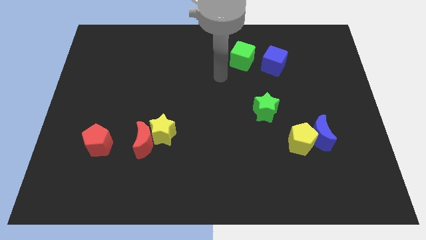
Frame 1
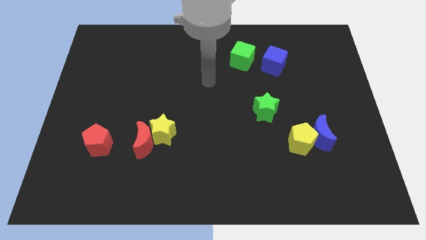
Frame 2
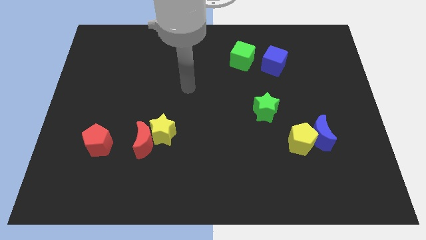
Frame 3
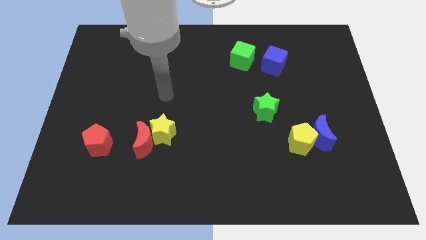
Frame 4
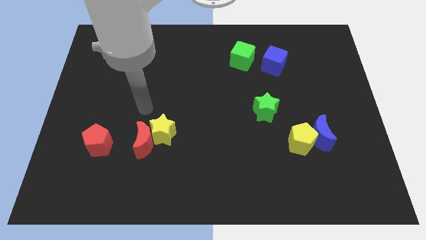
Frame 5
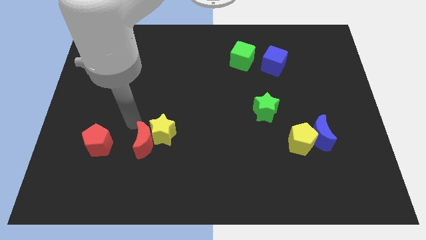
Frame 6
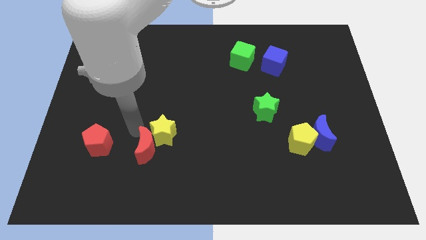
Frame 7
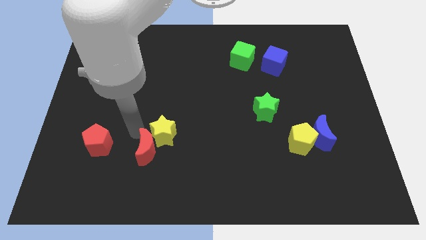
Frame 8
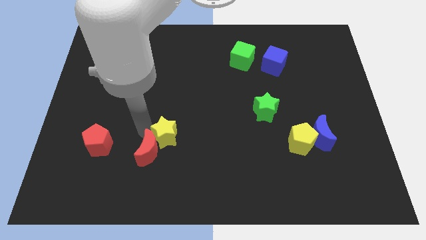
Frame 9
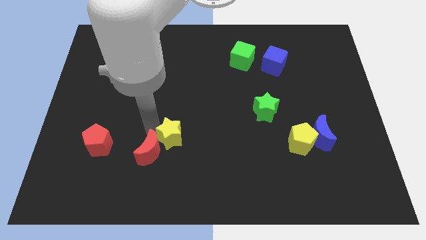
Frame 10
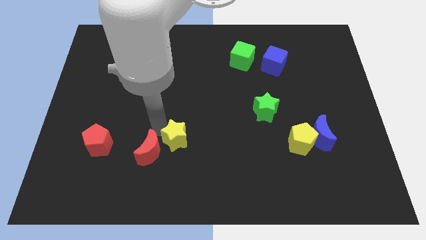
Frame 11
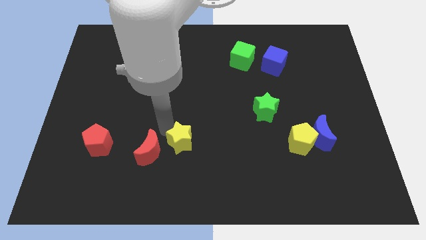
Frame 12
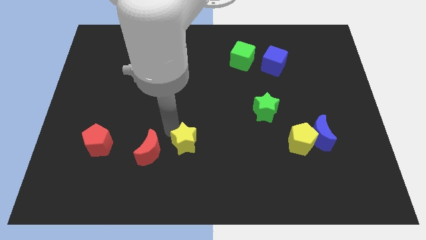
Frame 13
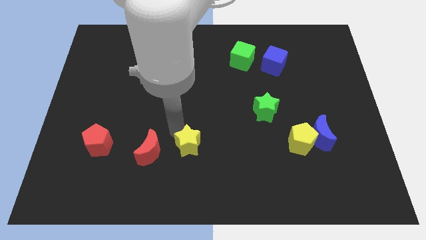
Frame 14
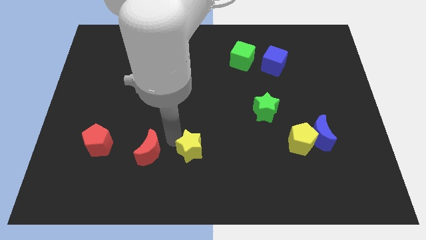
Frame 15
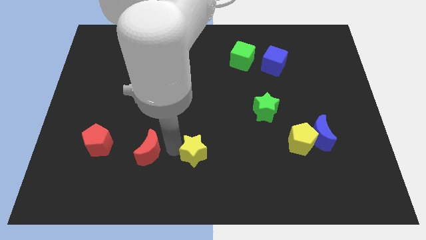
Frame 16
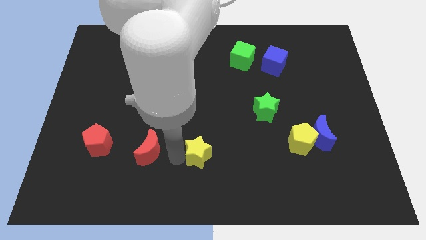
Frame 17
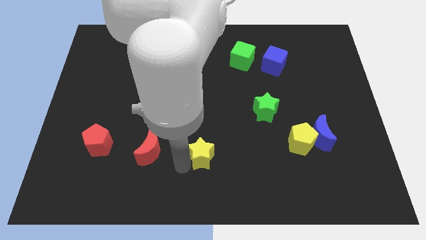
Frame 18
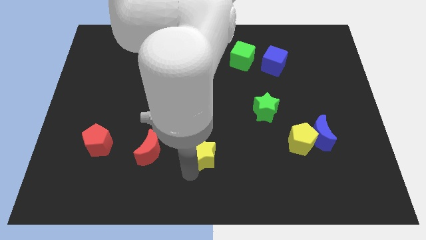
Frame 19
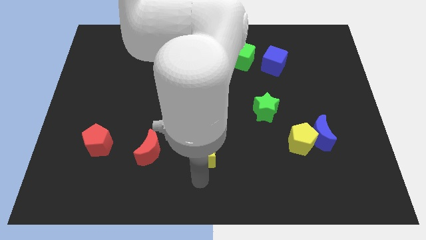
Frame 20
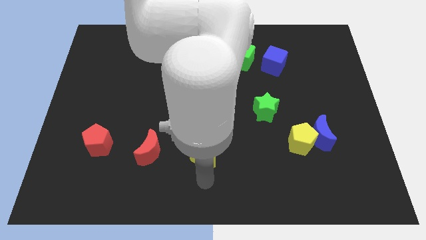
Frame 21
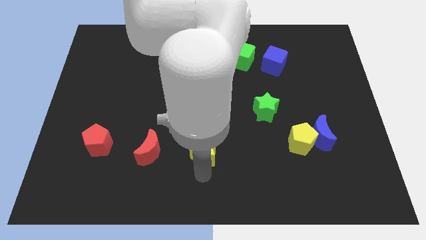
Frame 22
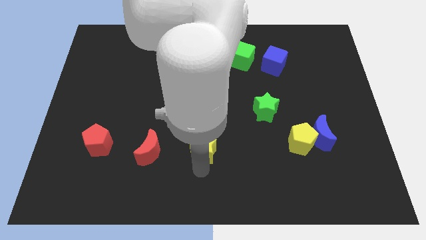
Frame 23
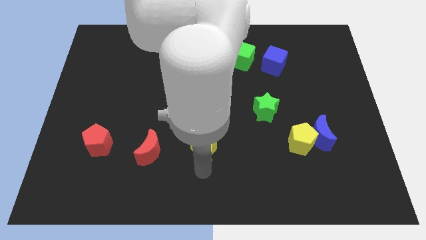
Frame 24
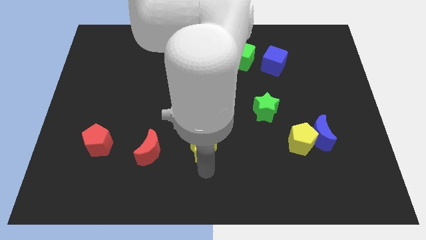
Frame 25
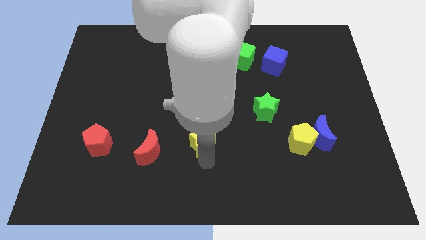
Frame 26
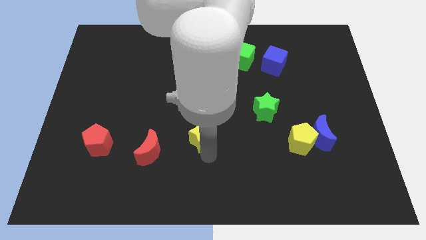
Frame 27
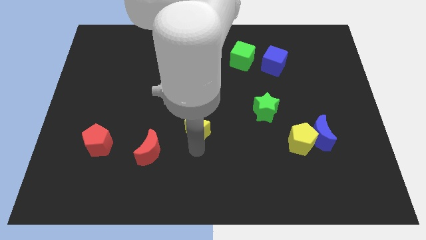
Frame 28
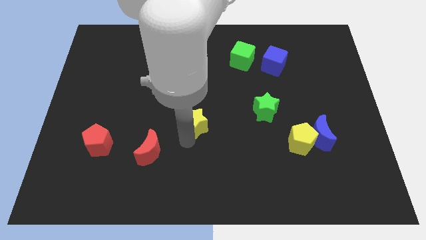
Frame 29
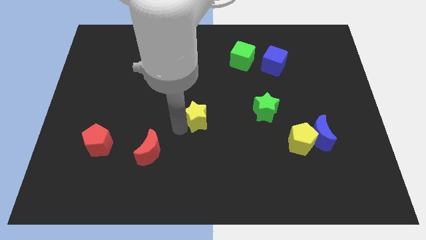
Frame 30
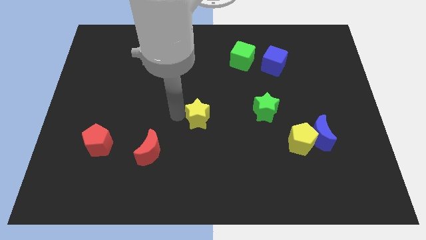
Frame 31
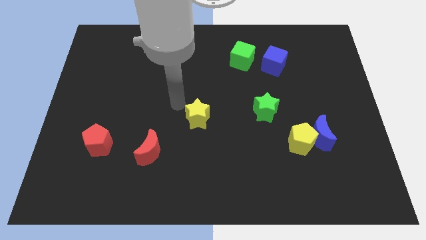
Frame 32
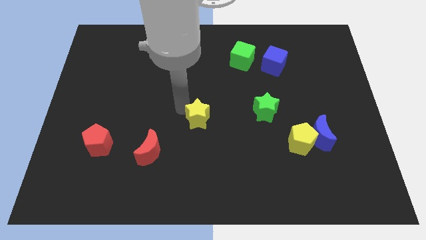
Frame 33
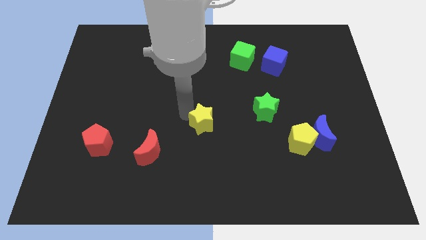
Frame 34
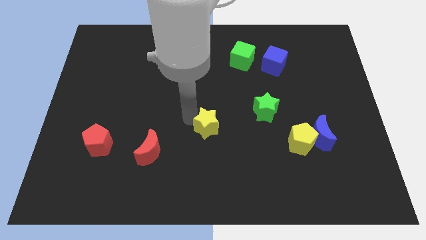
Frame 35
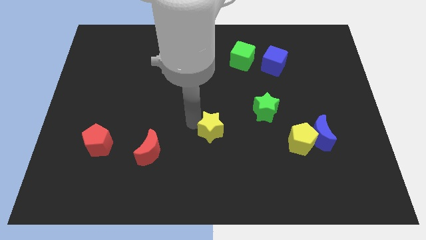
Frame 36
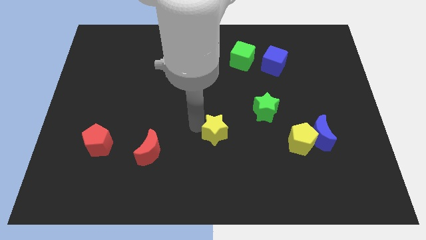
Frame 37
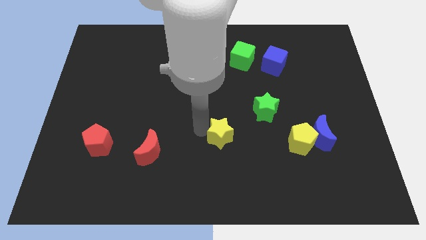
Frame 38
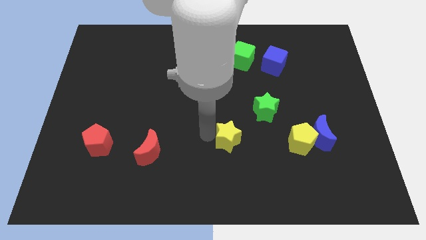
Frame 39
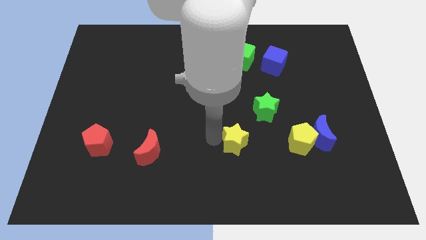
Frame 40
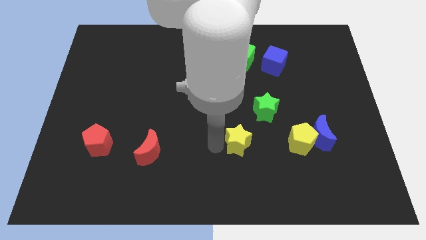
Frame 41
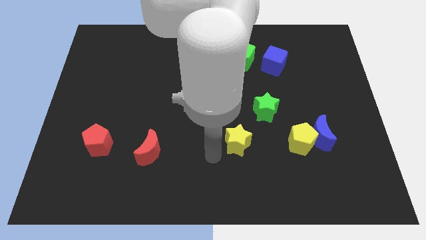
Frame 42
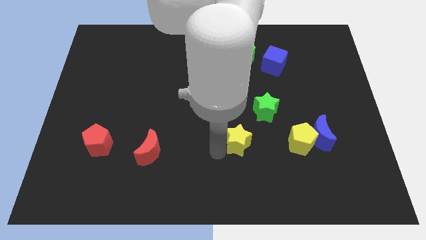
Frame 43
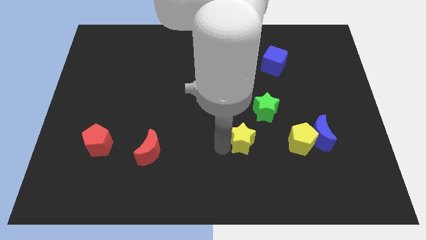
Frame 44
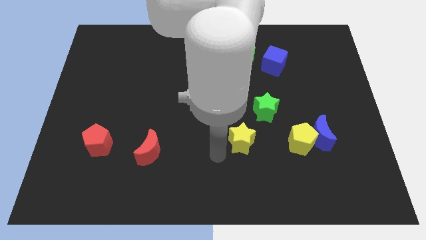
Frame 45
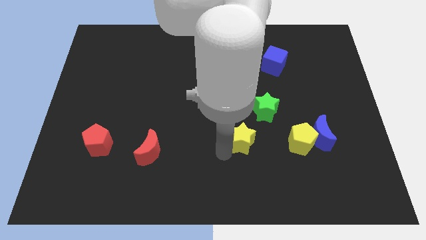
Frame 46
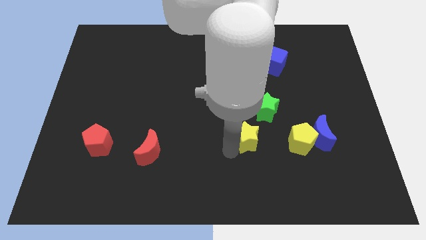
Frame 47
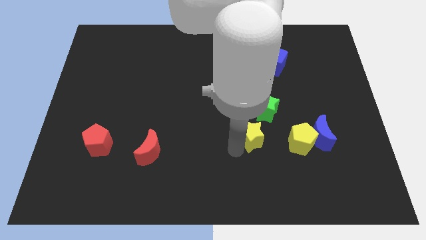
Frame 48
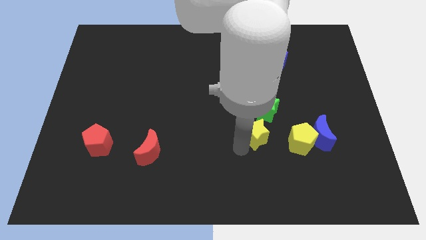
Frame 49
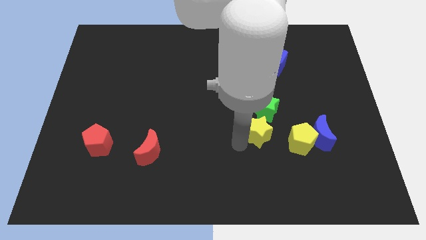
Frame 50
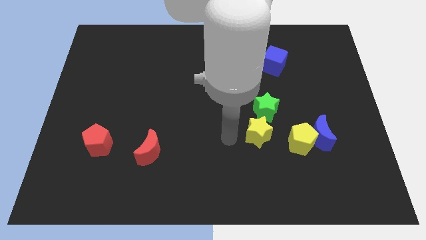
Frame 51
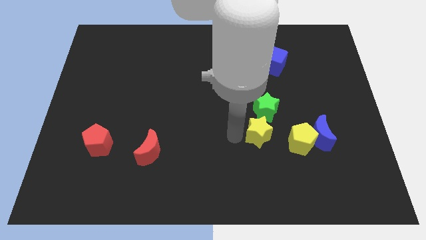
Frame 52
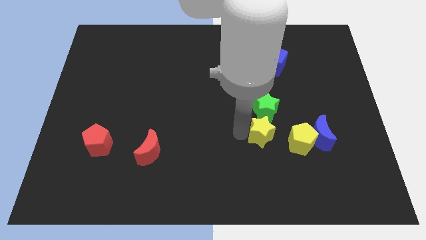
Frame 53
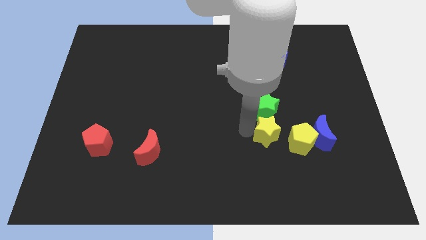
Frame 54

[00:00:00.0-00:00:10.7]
put the yellow star diagonally down and to the right of the green star

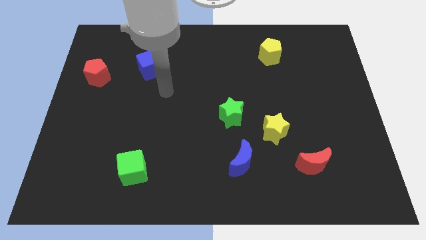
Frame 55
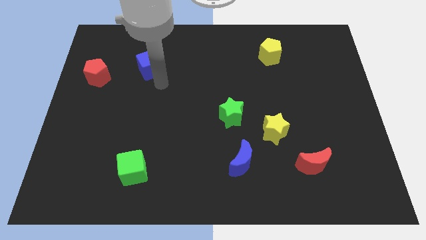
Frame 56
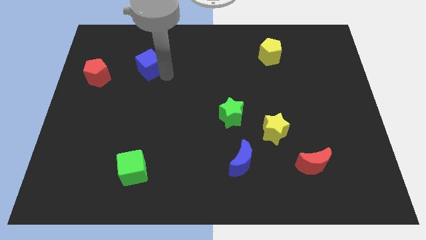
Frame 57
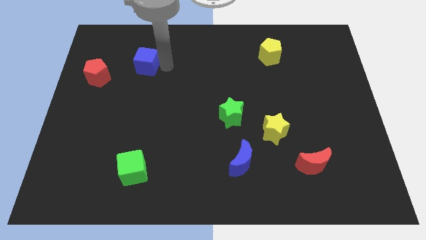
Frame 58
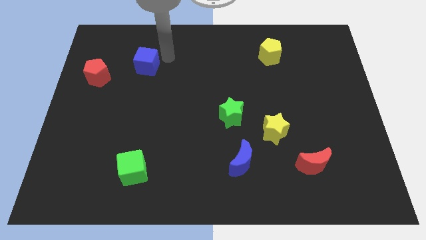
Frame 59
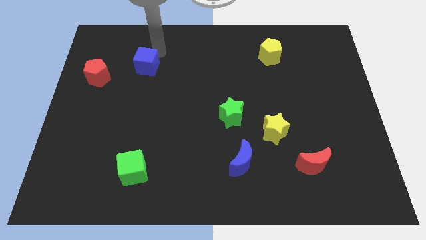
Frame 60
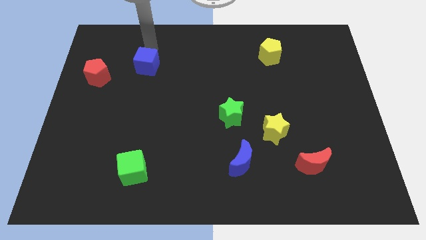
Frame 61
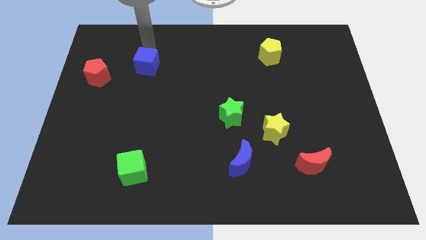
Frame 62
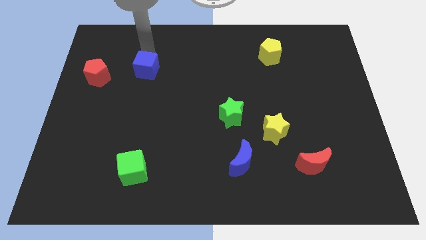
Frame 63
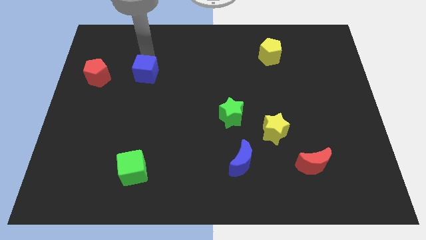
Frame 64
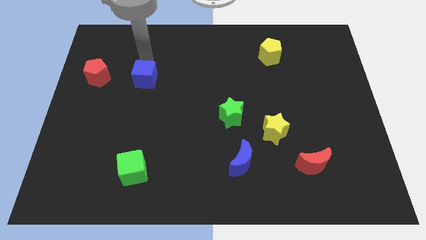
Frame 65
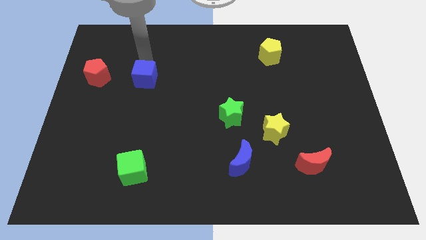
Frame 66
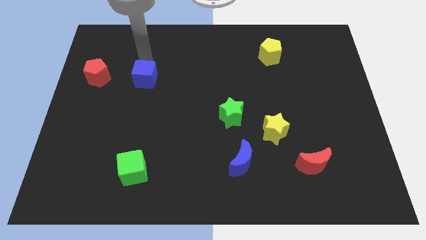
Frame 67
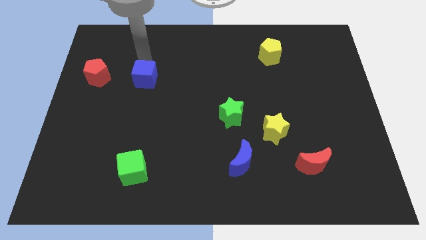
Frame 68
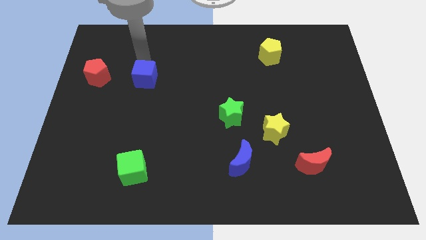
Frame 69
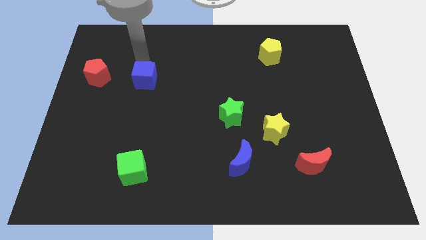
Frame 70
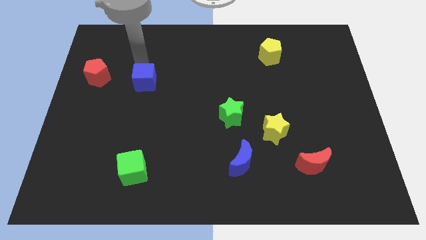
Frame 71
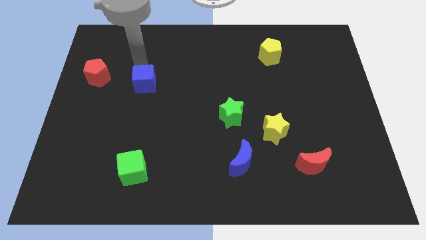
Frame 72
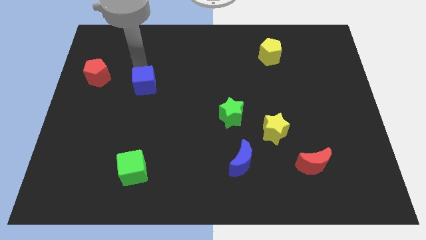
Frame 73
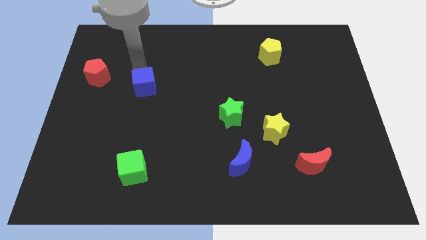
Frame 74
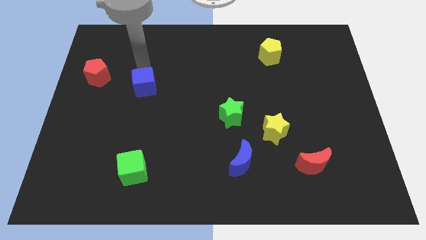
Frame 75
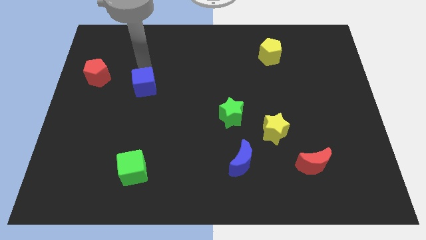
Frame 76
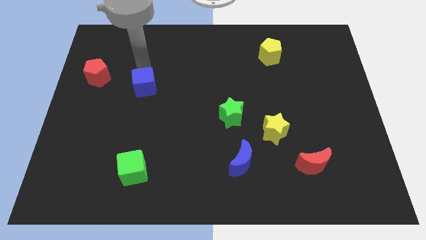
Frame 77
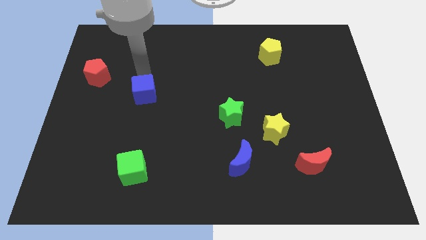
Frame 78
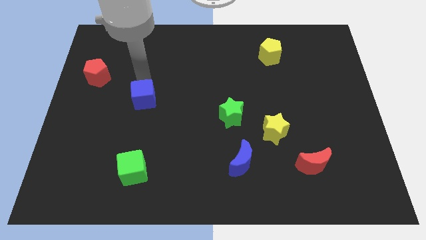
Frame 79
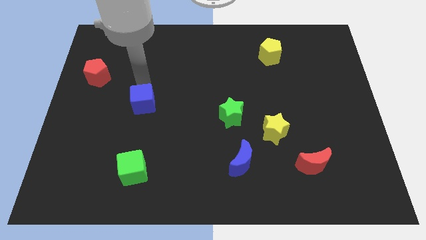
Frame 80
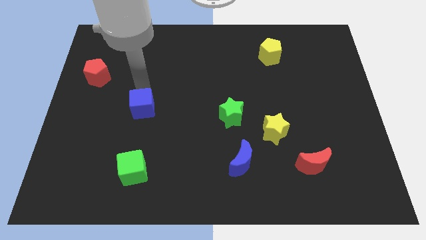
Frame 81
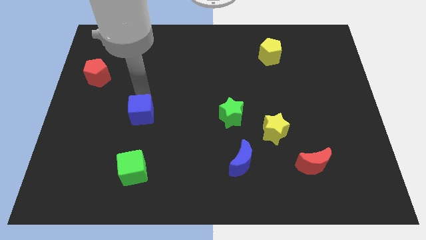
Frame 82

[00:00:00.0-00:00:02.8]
put the blue cube to the top of the green cube
